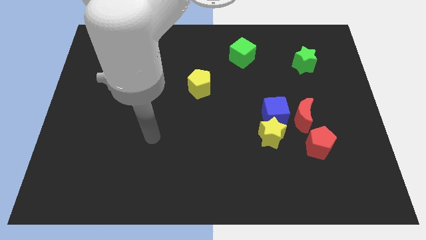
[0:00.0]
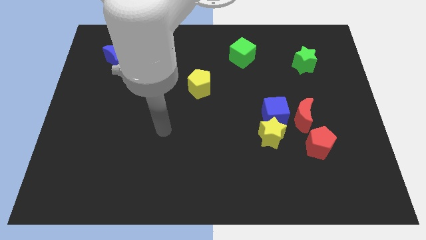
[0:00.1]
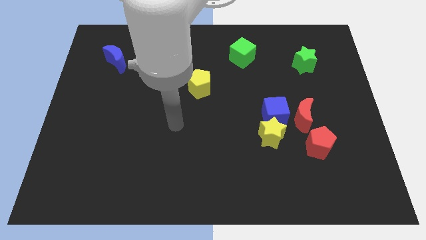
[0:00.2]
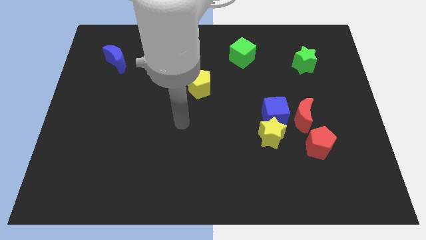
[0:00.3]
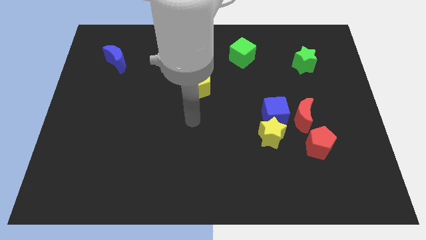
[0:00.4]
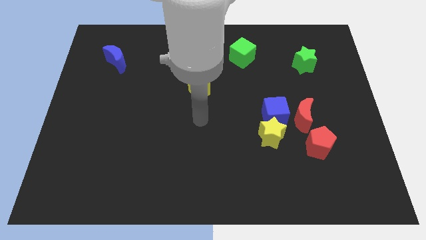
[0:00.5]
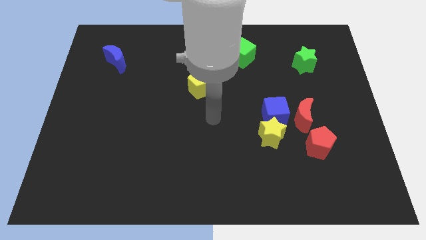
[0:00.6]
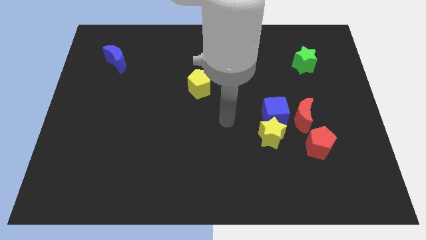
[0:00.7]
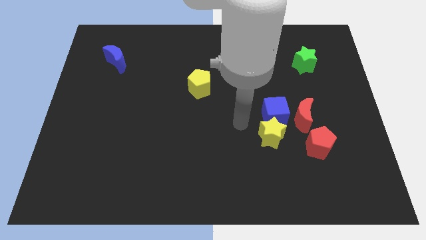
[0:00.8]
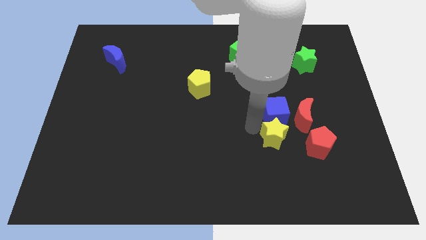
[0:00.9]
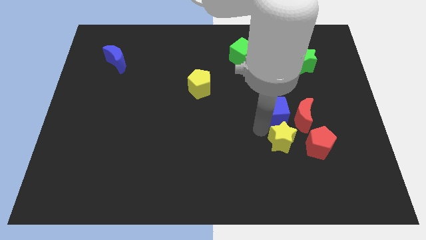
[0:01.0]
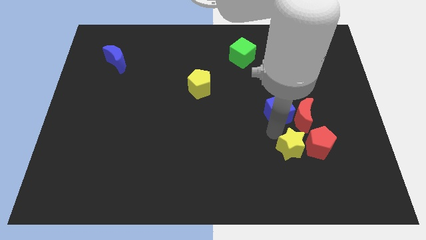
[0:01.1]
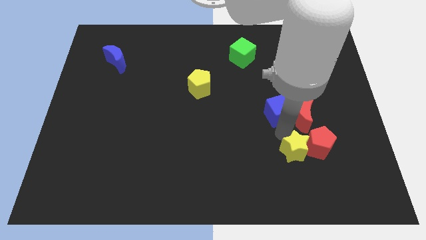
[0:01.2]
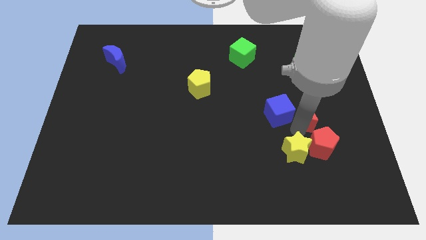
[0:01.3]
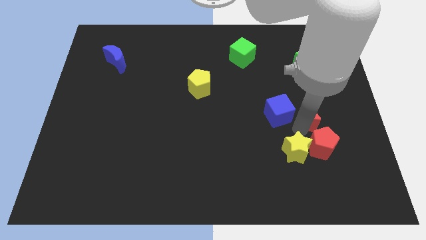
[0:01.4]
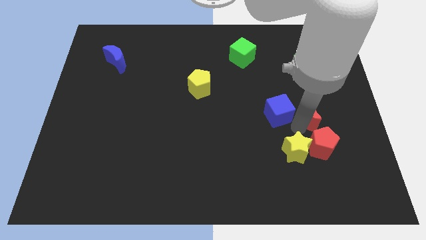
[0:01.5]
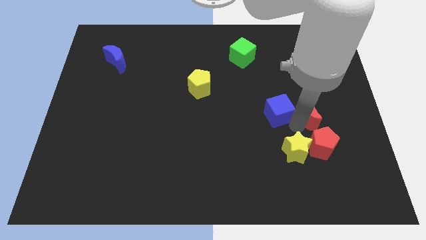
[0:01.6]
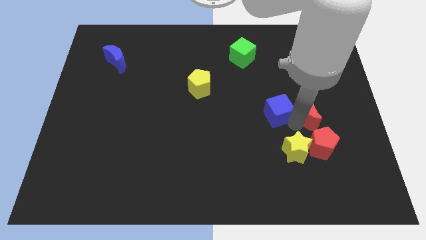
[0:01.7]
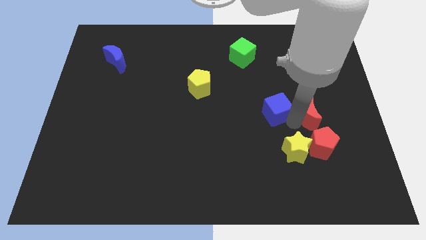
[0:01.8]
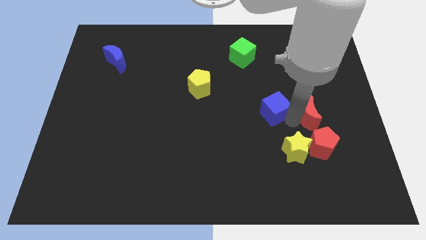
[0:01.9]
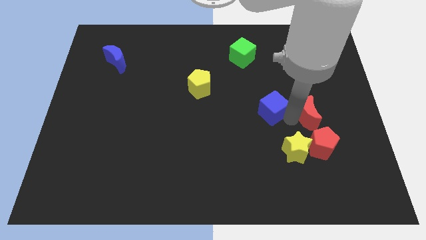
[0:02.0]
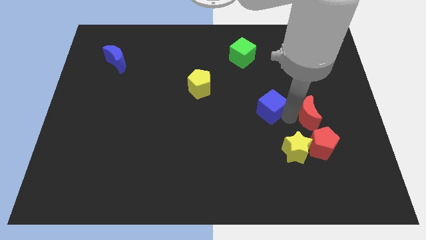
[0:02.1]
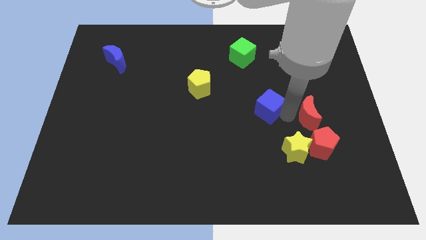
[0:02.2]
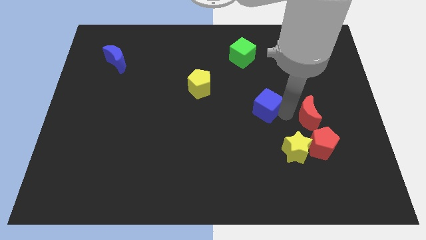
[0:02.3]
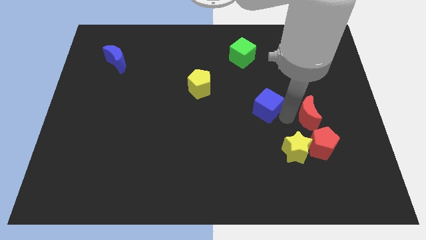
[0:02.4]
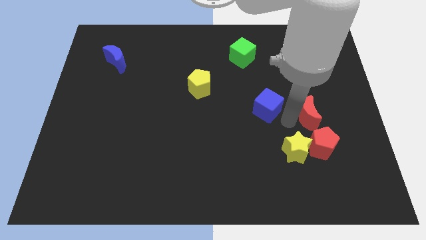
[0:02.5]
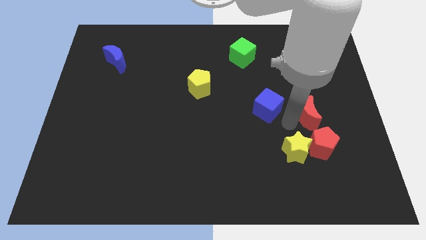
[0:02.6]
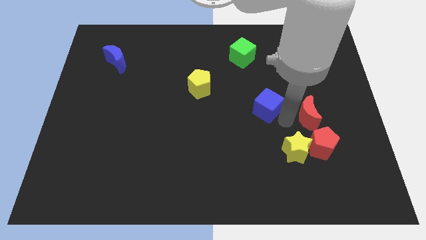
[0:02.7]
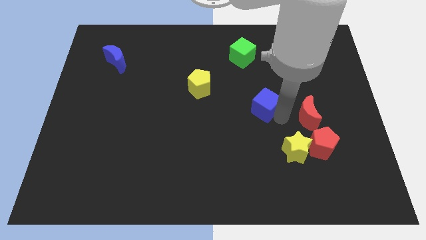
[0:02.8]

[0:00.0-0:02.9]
pull the blue cube apart from the yellow star and red moon

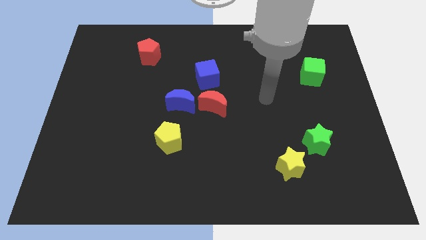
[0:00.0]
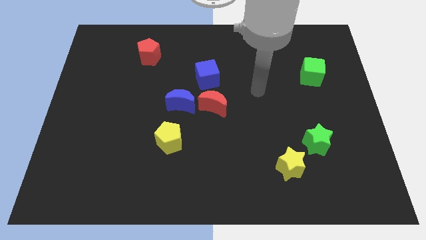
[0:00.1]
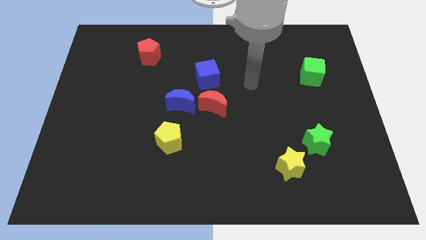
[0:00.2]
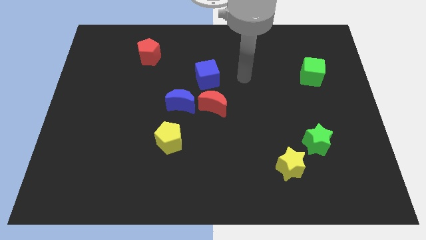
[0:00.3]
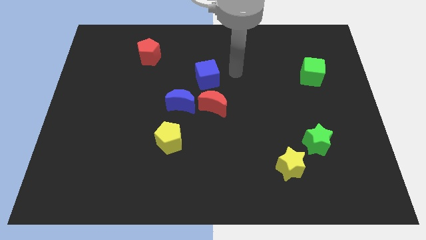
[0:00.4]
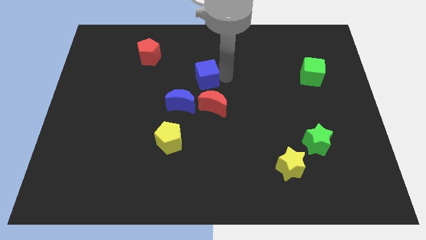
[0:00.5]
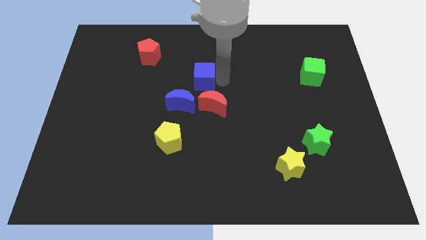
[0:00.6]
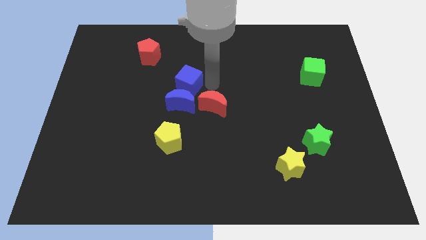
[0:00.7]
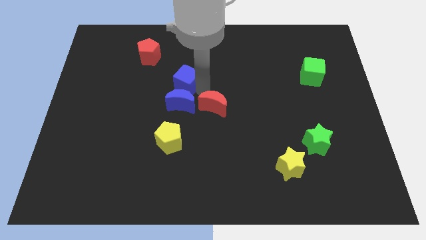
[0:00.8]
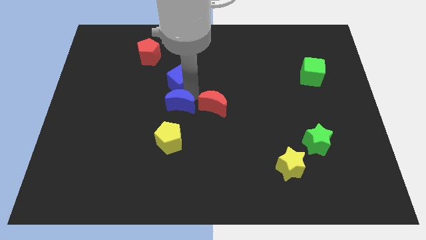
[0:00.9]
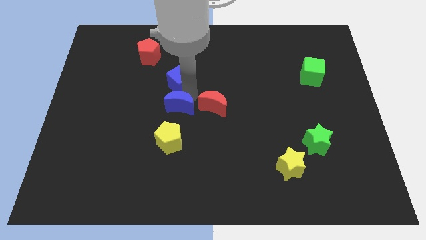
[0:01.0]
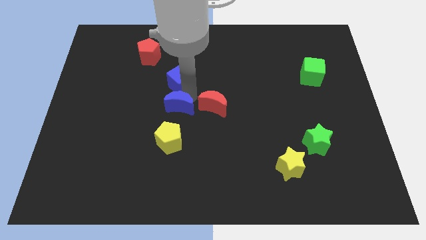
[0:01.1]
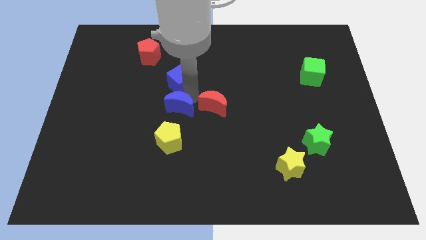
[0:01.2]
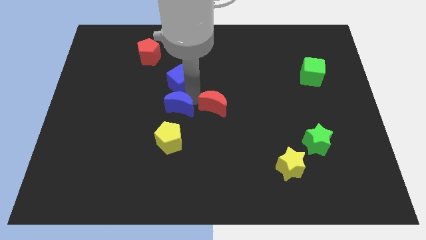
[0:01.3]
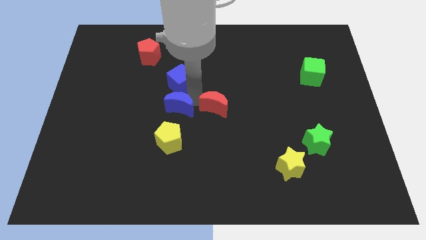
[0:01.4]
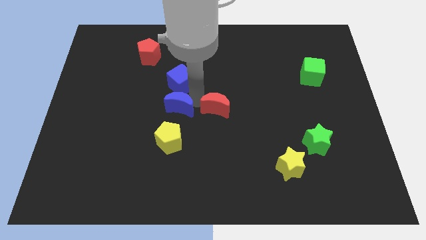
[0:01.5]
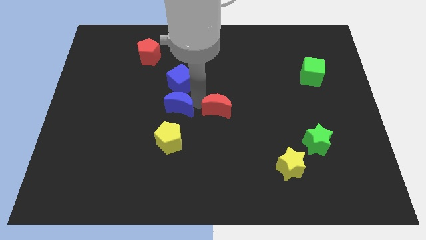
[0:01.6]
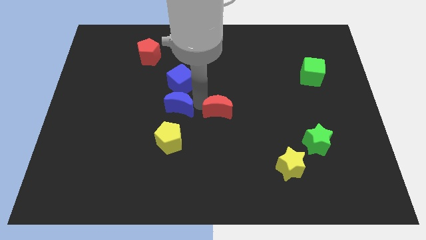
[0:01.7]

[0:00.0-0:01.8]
move the red moon away from the blue moon and blue cube

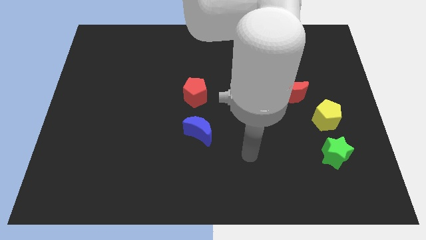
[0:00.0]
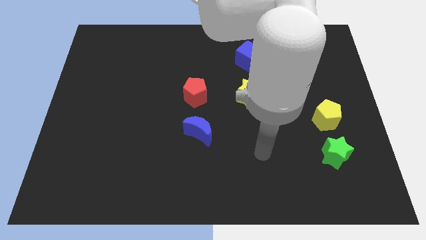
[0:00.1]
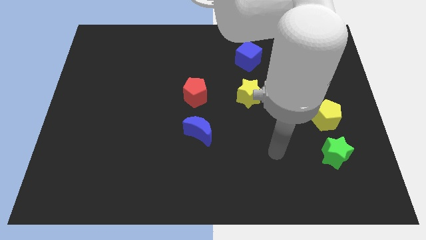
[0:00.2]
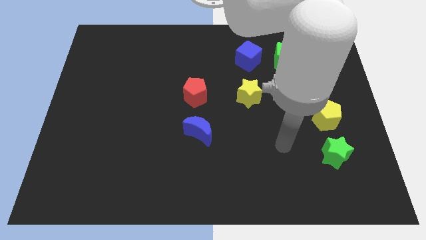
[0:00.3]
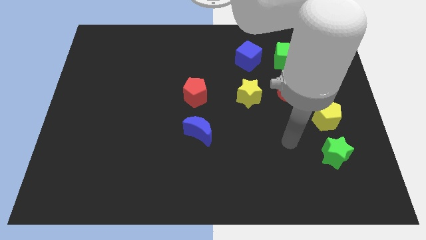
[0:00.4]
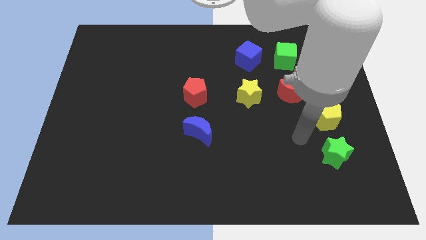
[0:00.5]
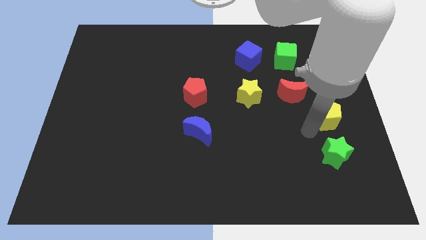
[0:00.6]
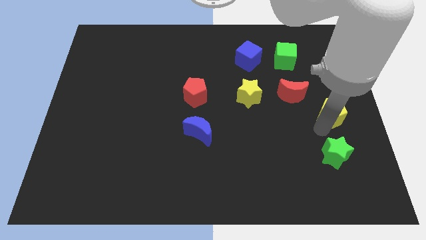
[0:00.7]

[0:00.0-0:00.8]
move the green star away from the yellow pentagon

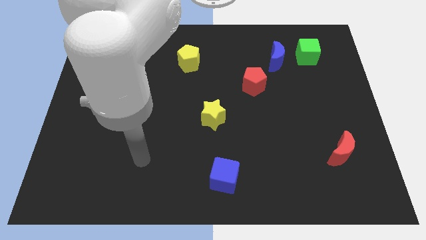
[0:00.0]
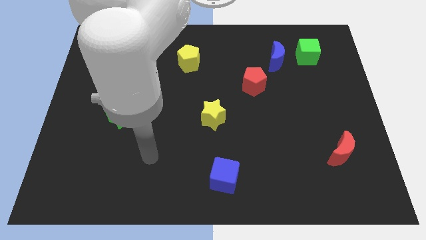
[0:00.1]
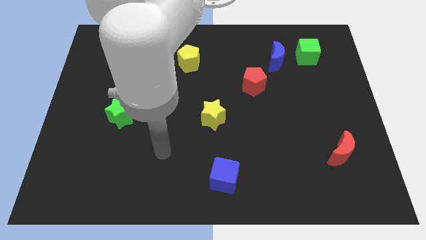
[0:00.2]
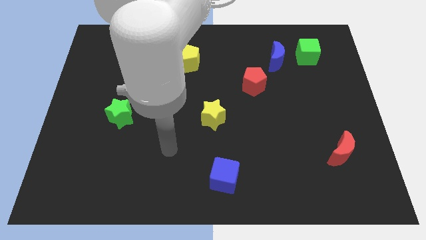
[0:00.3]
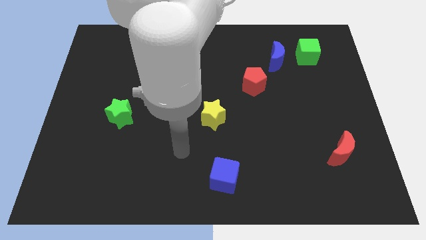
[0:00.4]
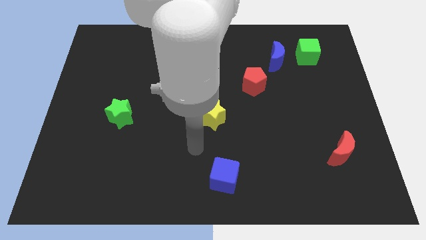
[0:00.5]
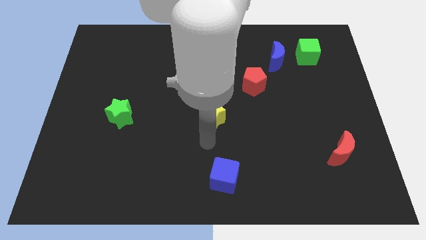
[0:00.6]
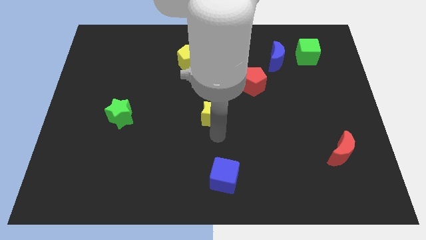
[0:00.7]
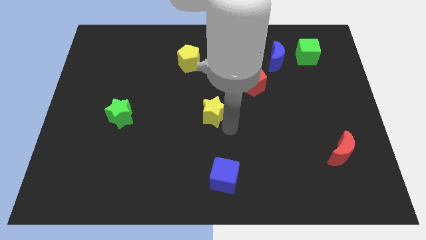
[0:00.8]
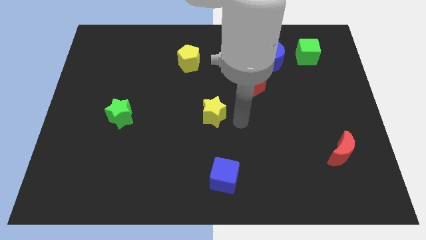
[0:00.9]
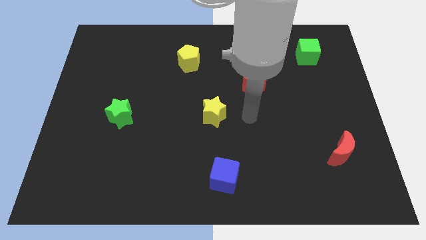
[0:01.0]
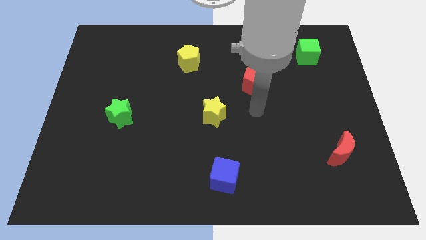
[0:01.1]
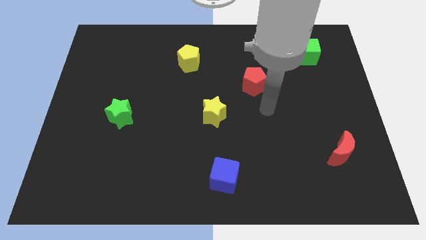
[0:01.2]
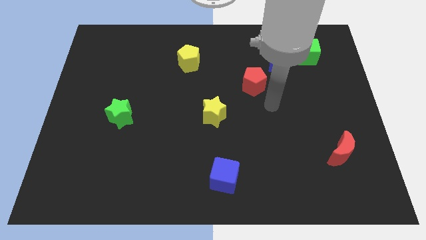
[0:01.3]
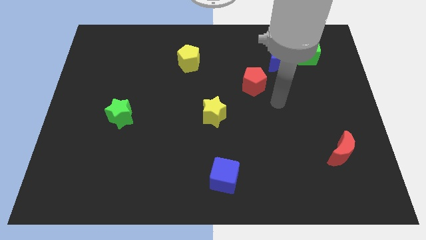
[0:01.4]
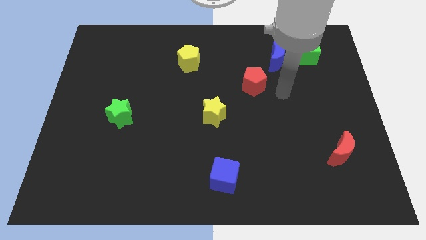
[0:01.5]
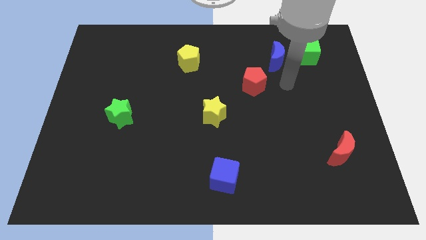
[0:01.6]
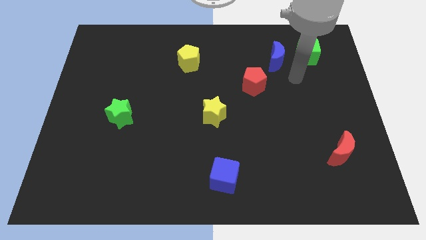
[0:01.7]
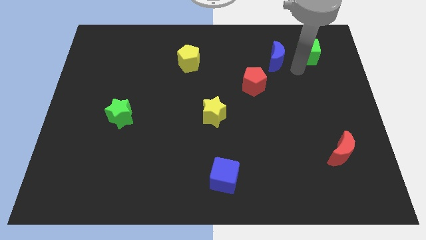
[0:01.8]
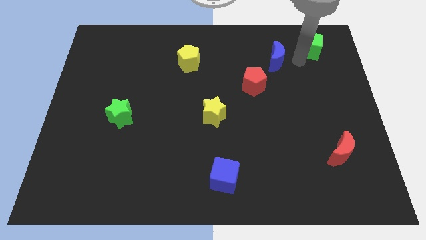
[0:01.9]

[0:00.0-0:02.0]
move the blue moon away from the green cube

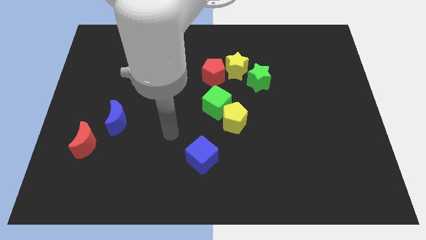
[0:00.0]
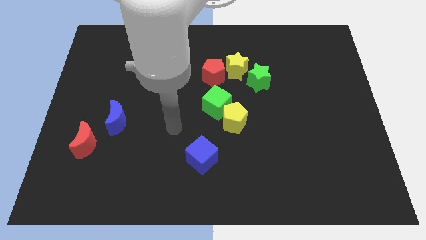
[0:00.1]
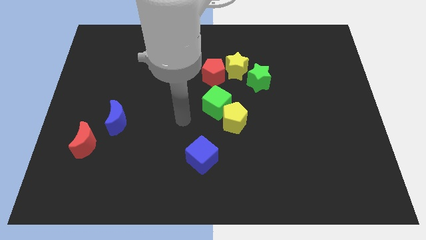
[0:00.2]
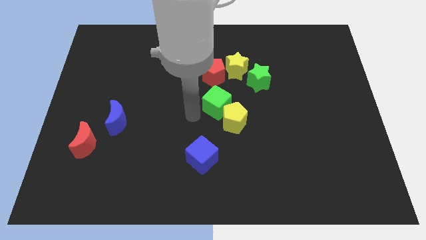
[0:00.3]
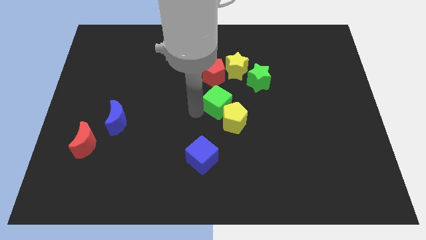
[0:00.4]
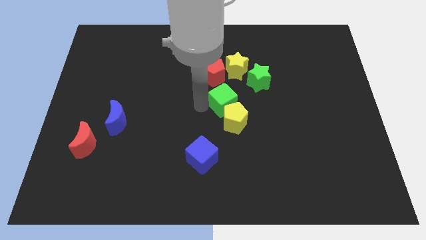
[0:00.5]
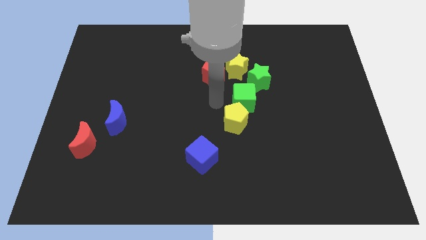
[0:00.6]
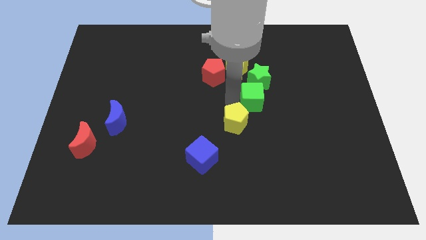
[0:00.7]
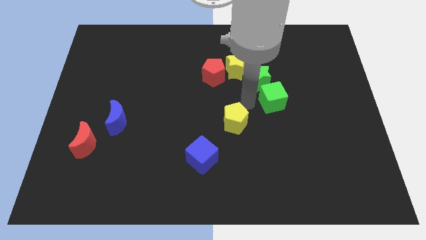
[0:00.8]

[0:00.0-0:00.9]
move the yellow pentagon away from the green cube

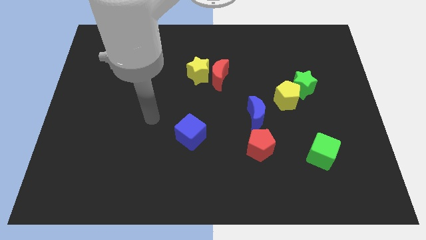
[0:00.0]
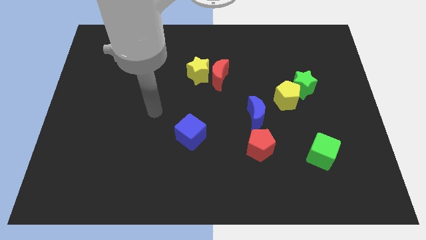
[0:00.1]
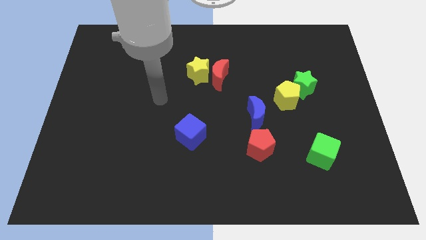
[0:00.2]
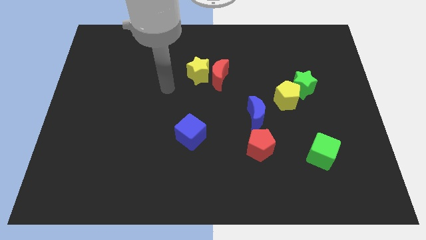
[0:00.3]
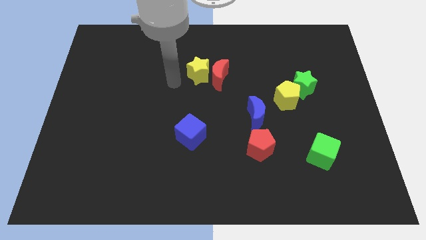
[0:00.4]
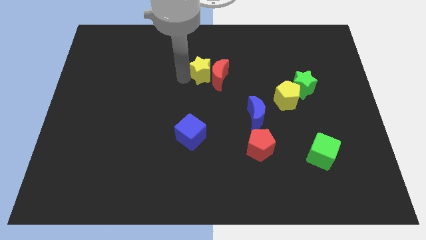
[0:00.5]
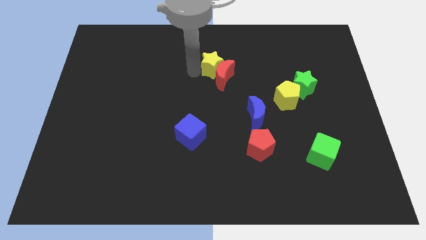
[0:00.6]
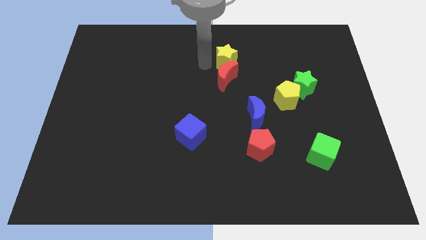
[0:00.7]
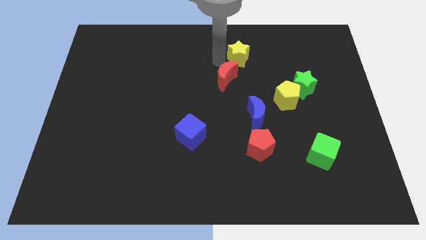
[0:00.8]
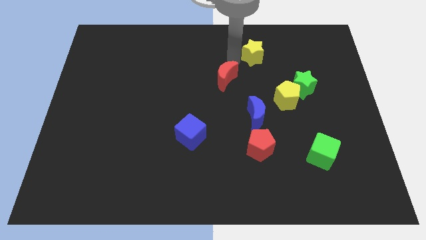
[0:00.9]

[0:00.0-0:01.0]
pull the red moon apart from the yellow star
